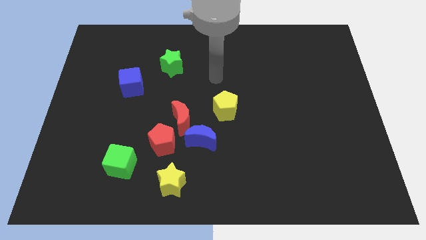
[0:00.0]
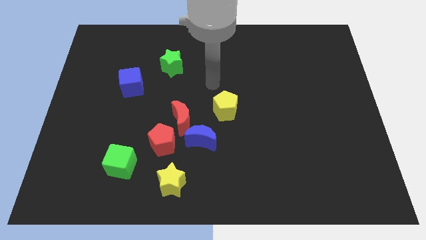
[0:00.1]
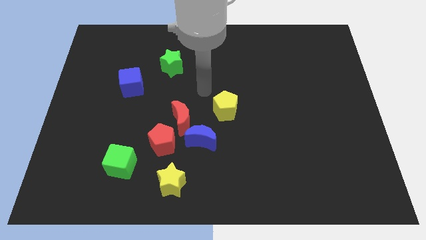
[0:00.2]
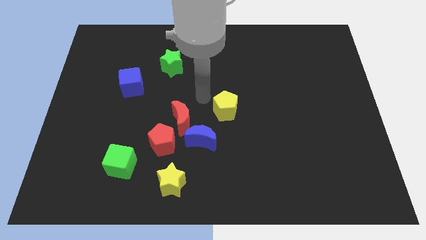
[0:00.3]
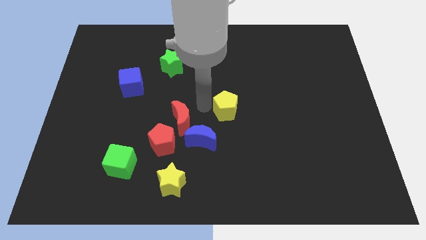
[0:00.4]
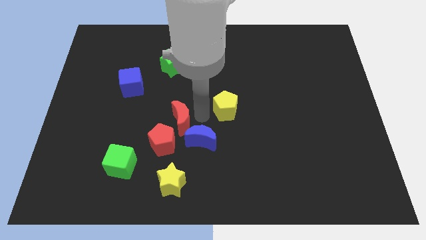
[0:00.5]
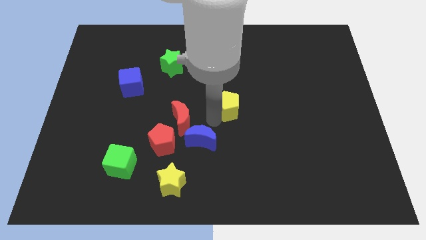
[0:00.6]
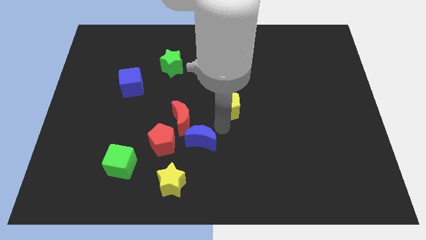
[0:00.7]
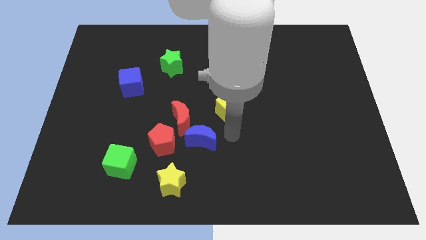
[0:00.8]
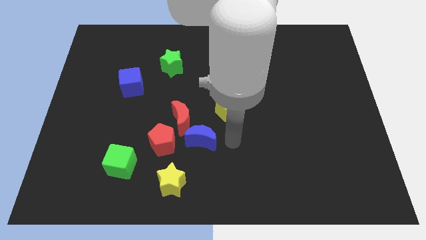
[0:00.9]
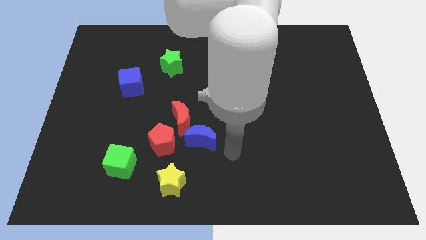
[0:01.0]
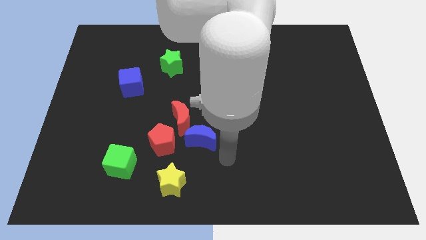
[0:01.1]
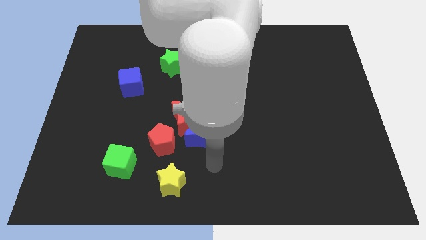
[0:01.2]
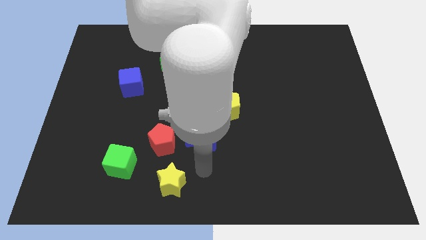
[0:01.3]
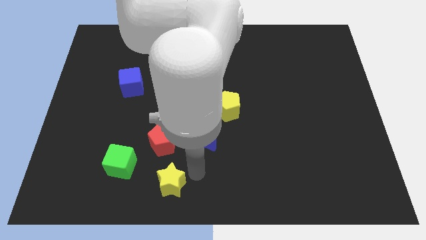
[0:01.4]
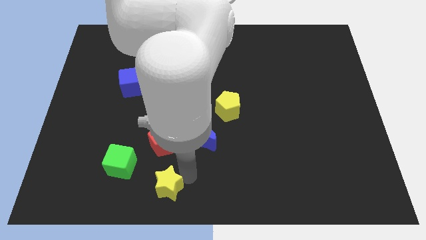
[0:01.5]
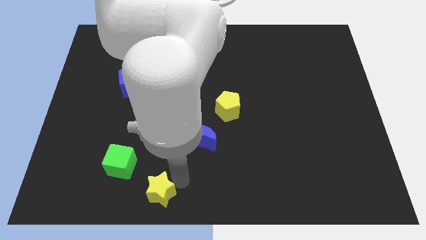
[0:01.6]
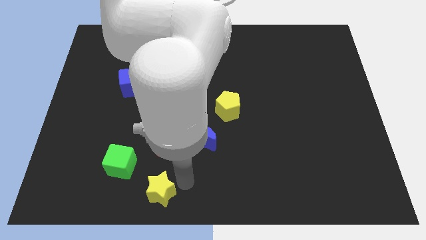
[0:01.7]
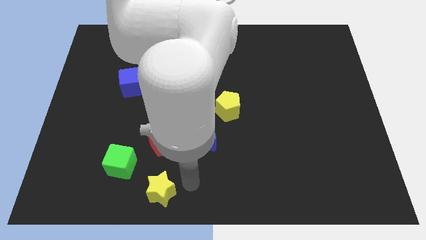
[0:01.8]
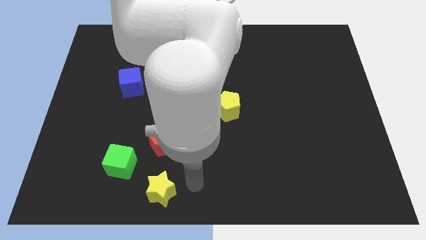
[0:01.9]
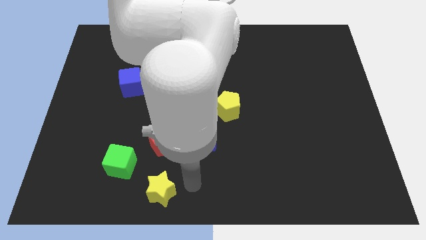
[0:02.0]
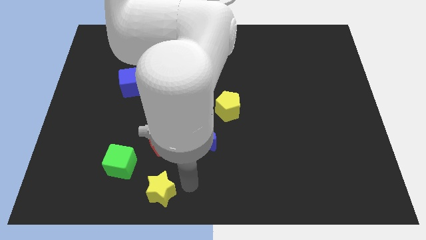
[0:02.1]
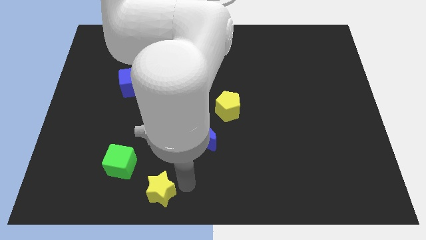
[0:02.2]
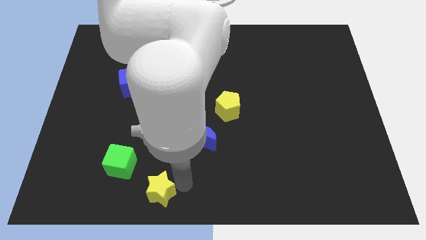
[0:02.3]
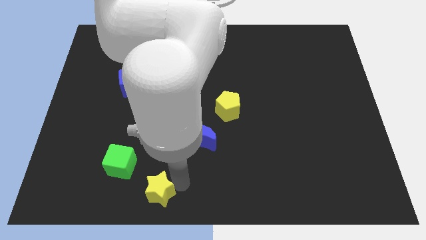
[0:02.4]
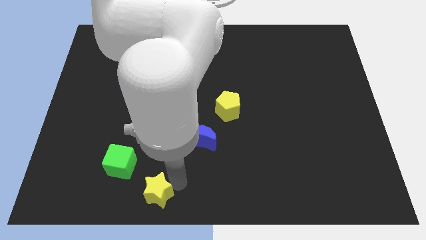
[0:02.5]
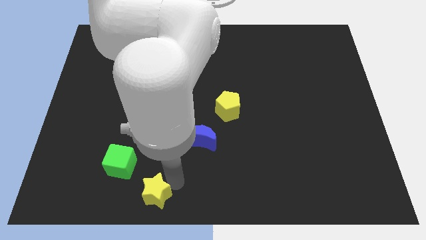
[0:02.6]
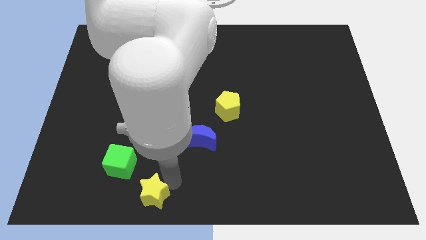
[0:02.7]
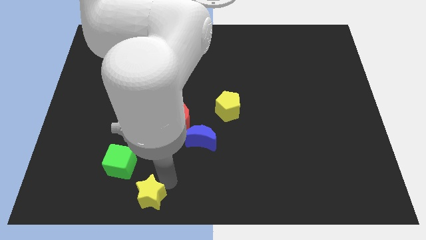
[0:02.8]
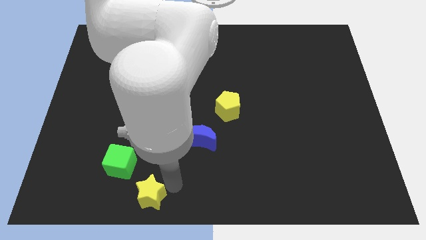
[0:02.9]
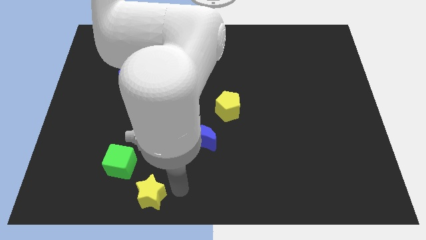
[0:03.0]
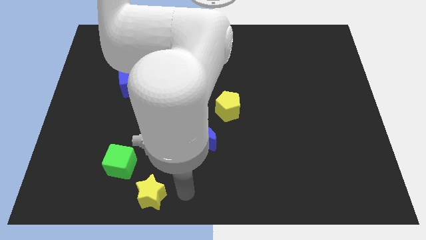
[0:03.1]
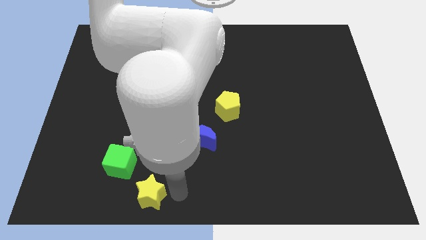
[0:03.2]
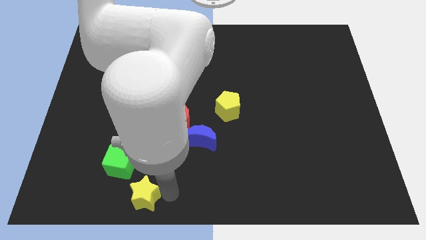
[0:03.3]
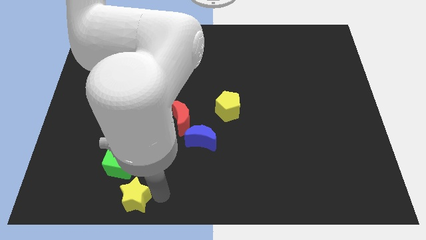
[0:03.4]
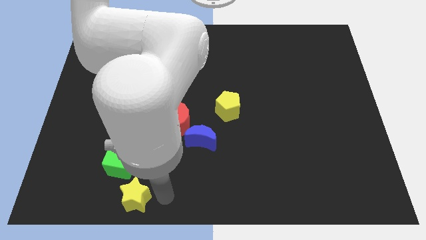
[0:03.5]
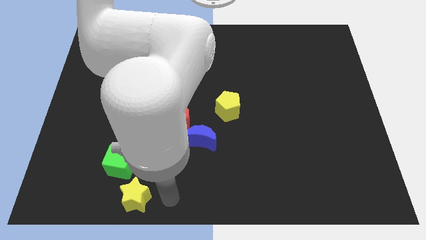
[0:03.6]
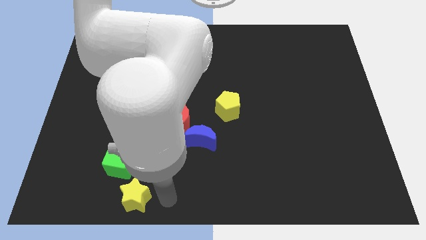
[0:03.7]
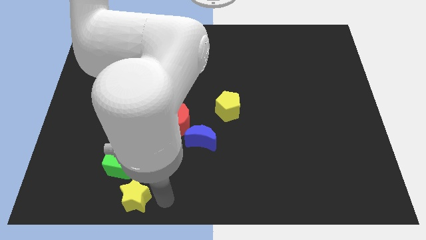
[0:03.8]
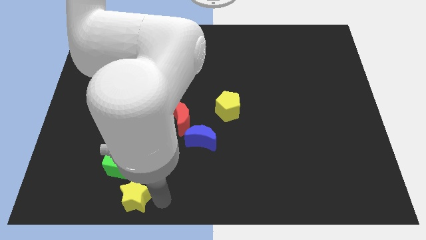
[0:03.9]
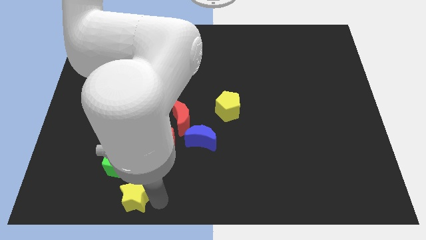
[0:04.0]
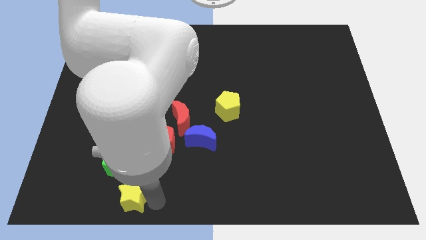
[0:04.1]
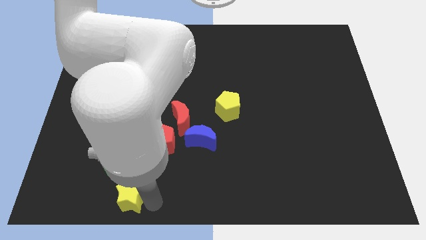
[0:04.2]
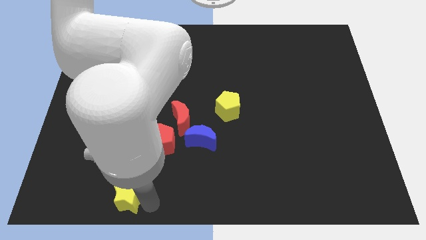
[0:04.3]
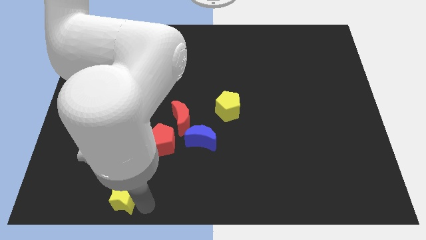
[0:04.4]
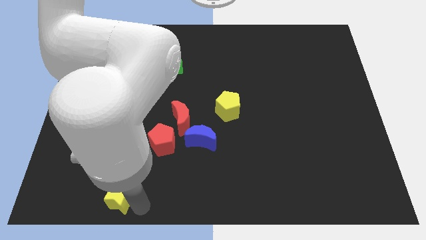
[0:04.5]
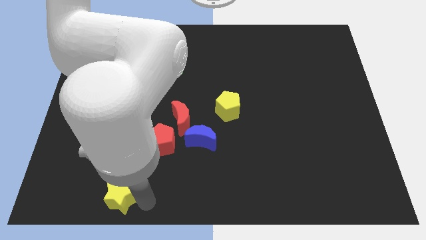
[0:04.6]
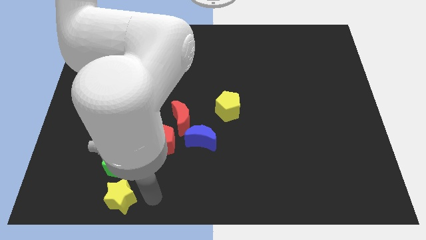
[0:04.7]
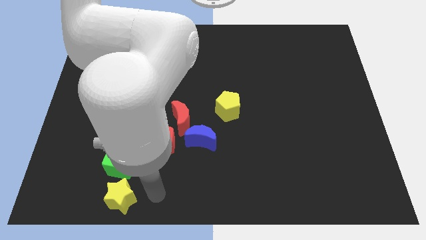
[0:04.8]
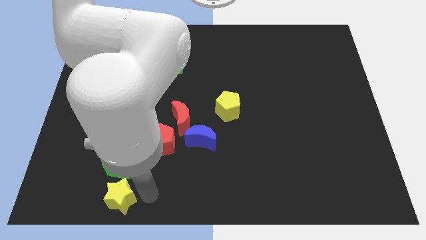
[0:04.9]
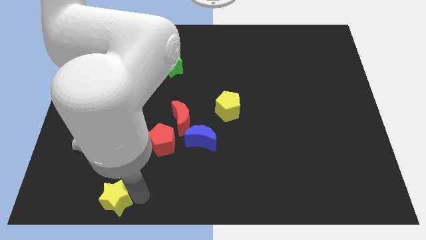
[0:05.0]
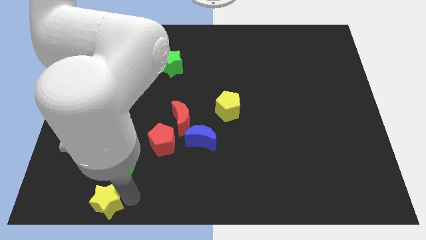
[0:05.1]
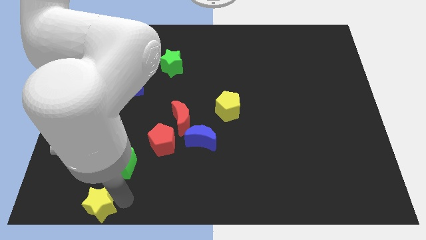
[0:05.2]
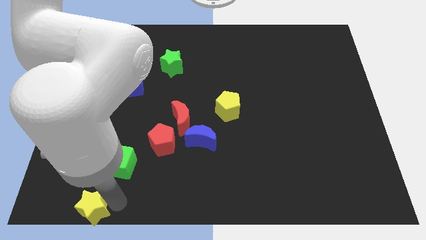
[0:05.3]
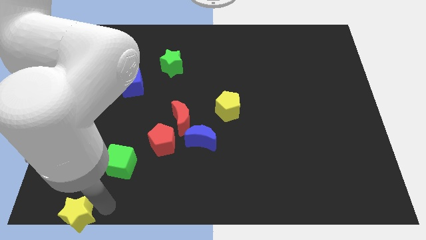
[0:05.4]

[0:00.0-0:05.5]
push the yellow star to the bottom left of the board

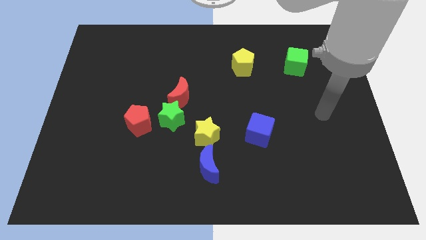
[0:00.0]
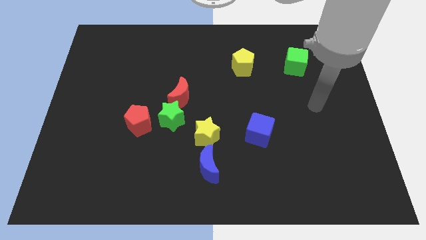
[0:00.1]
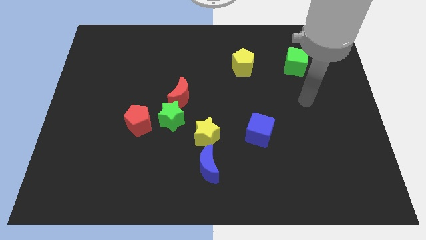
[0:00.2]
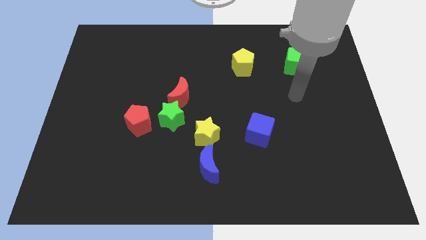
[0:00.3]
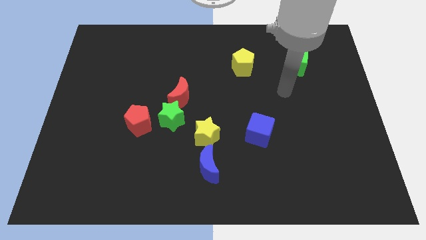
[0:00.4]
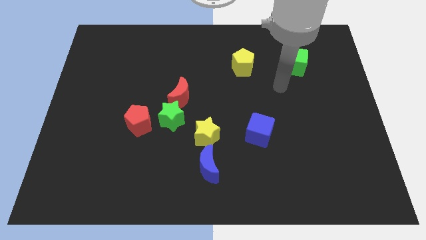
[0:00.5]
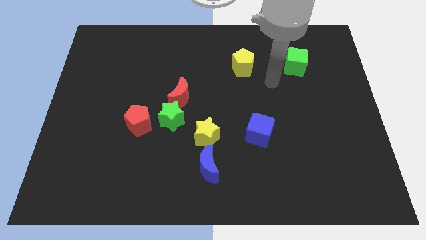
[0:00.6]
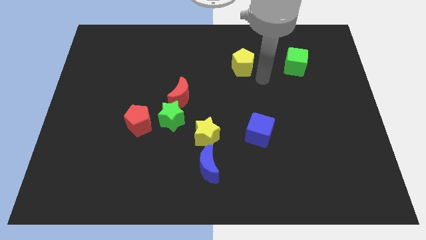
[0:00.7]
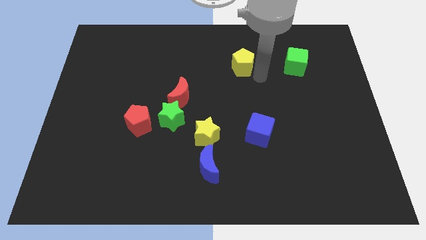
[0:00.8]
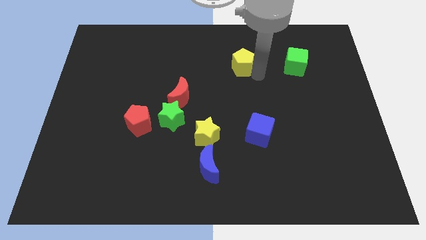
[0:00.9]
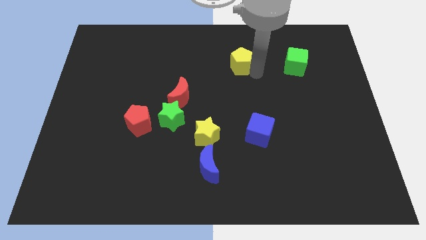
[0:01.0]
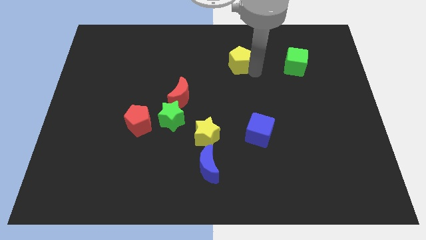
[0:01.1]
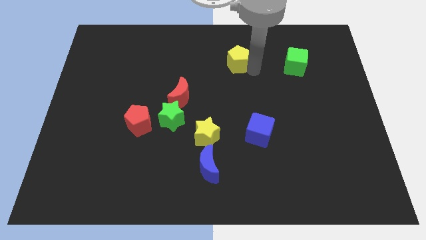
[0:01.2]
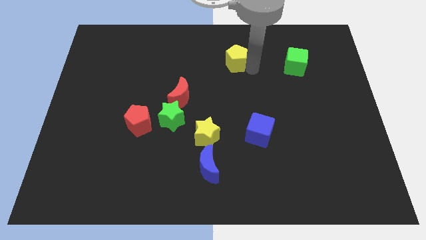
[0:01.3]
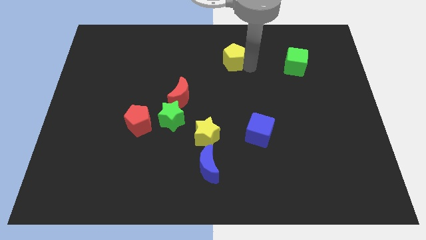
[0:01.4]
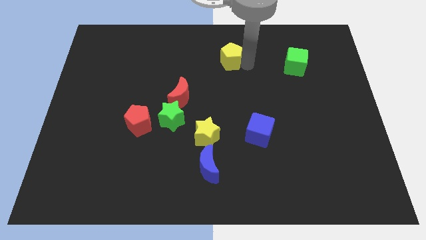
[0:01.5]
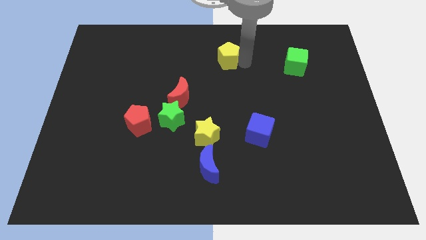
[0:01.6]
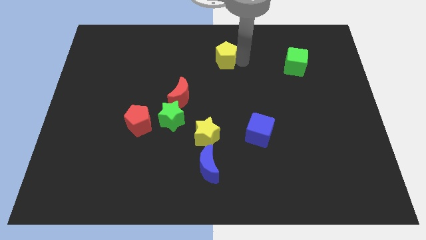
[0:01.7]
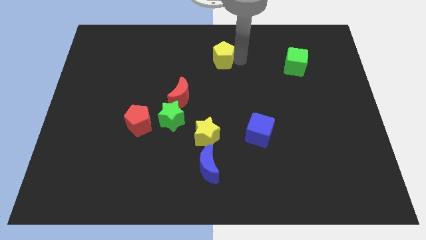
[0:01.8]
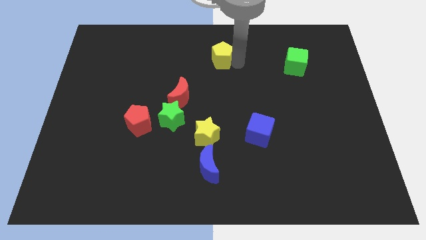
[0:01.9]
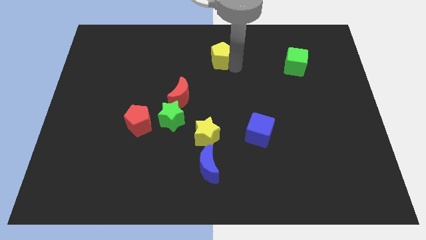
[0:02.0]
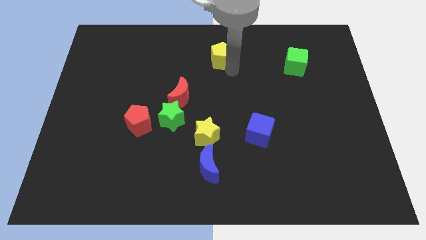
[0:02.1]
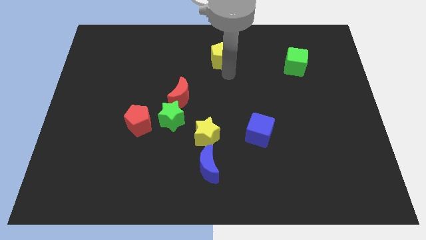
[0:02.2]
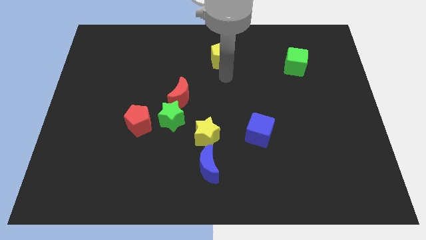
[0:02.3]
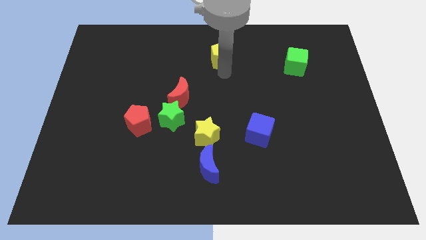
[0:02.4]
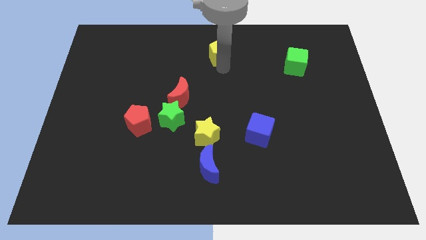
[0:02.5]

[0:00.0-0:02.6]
move the yellow pentagon to the towards your base
